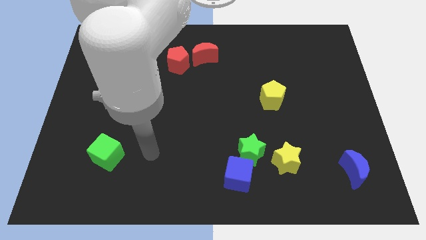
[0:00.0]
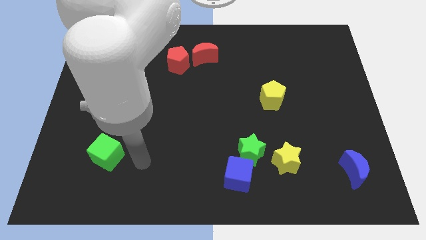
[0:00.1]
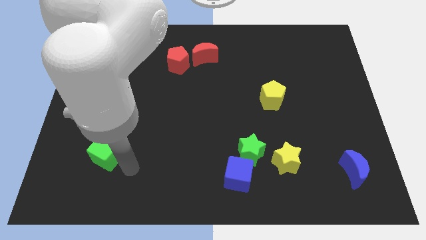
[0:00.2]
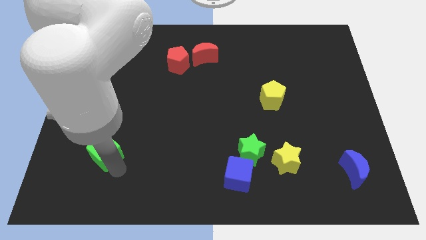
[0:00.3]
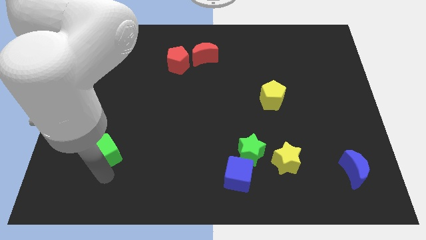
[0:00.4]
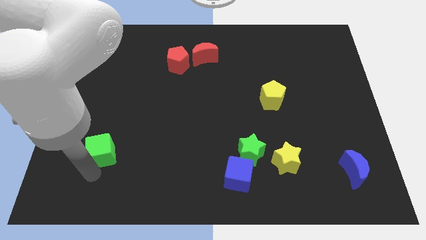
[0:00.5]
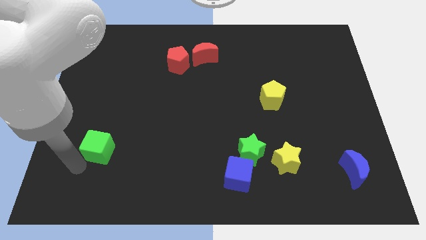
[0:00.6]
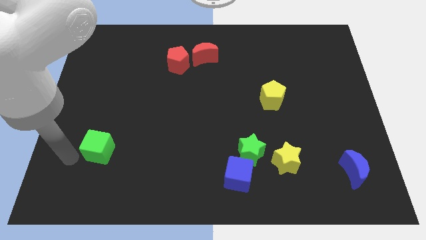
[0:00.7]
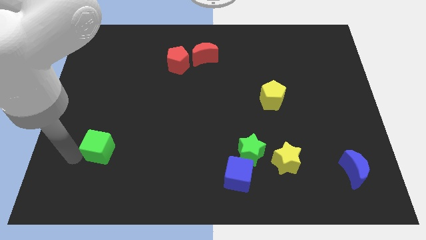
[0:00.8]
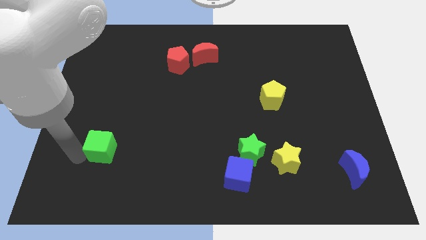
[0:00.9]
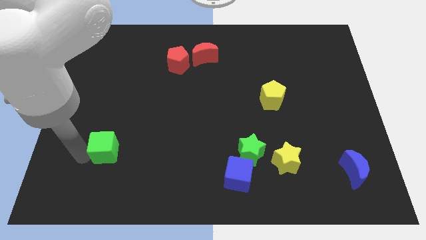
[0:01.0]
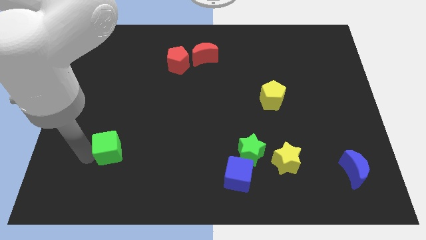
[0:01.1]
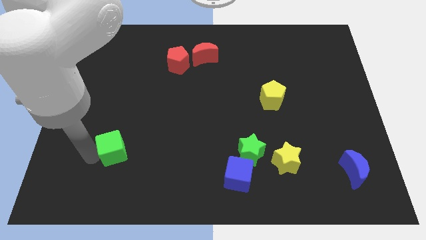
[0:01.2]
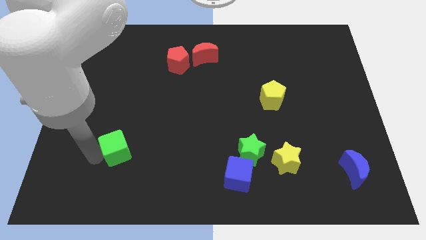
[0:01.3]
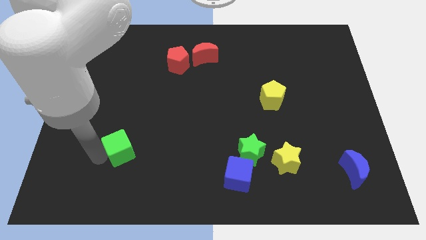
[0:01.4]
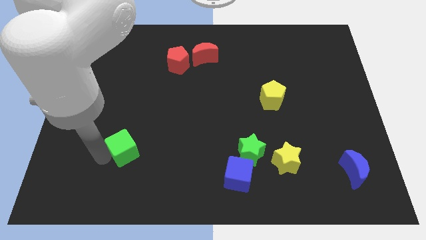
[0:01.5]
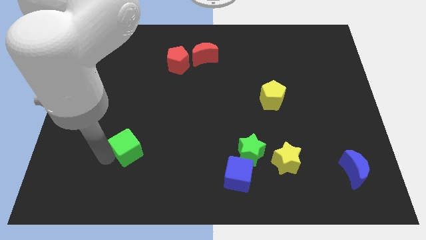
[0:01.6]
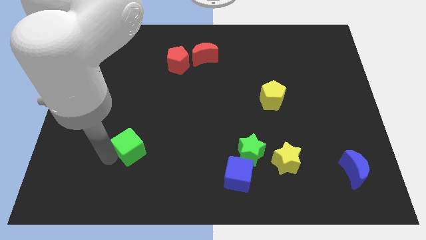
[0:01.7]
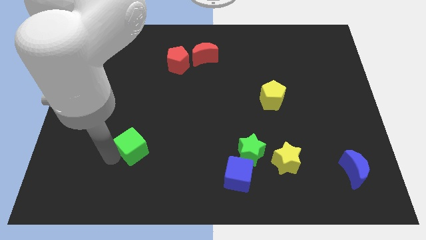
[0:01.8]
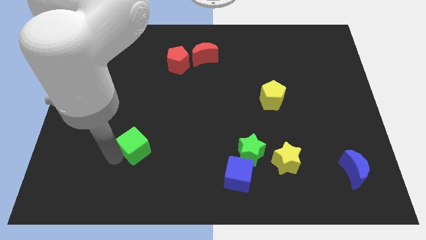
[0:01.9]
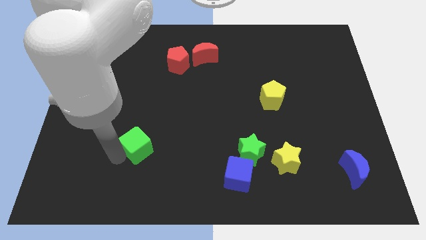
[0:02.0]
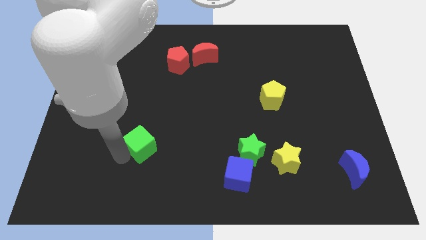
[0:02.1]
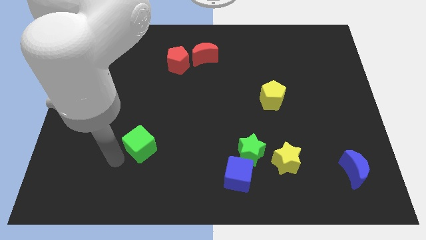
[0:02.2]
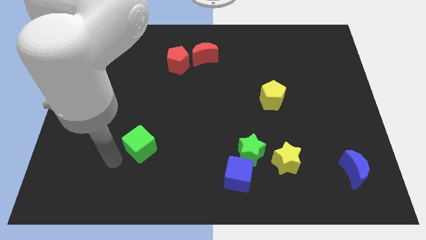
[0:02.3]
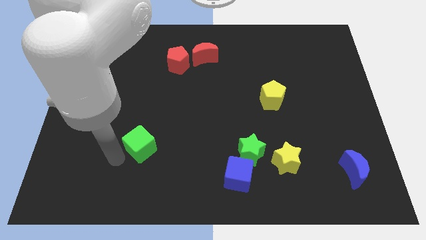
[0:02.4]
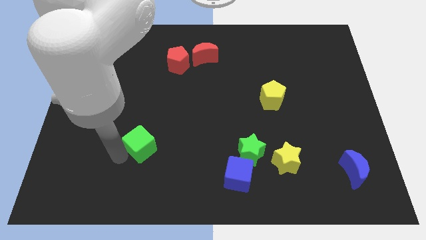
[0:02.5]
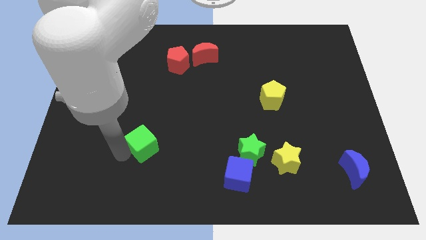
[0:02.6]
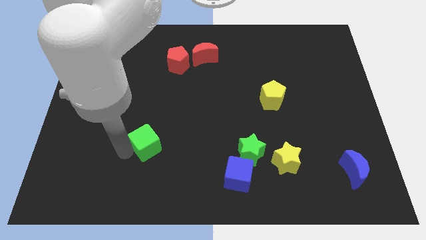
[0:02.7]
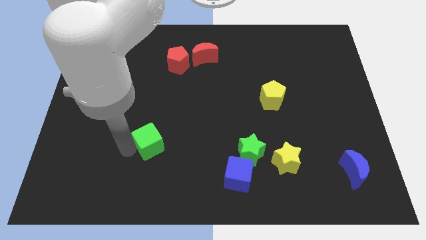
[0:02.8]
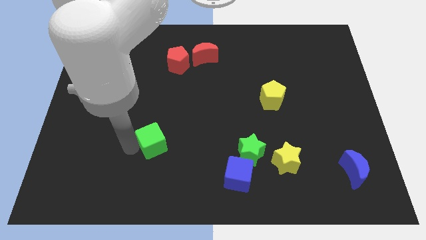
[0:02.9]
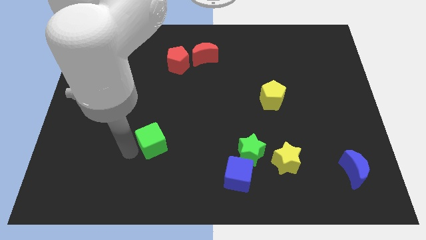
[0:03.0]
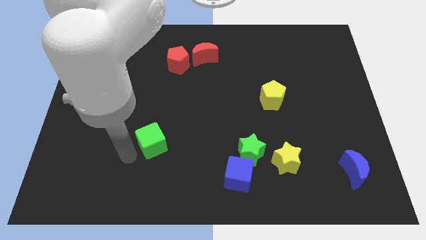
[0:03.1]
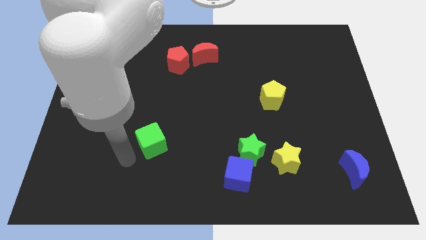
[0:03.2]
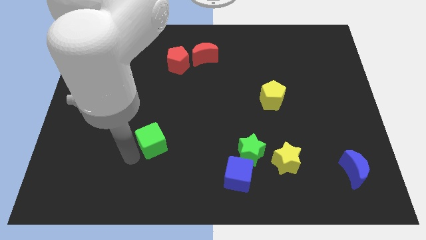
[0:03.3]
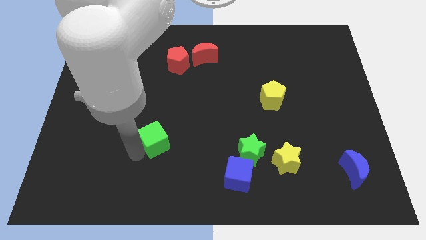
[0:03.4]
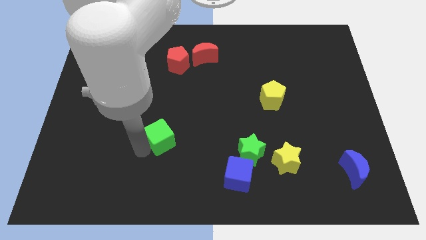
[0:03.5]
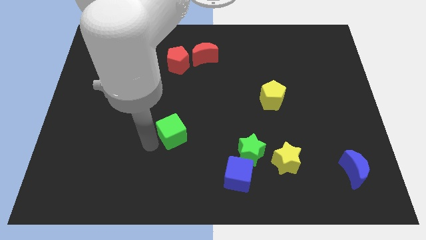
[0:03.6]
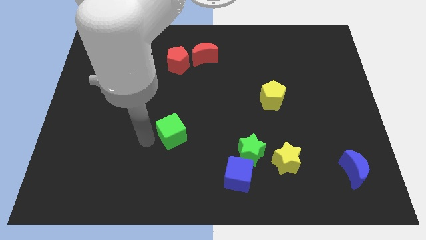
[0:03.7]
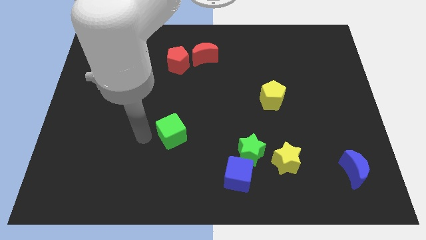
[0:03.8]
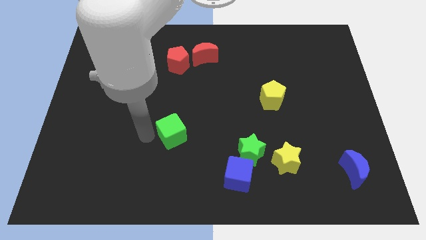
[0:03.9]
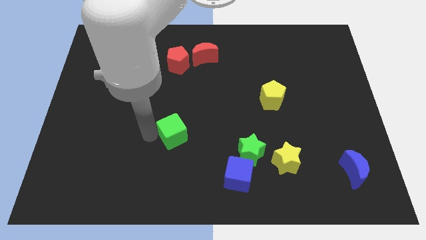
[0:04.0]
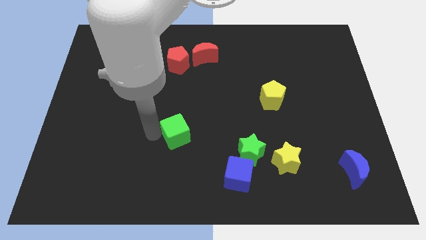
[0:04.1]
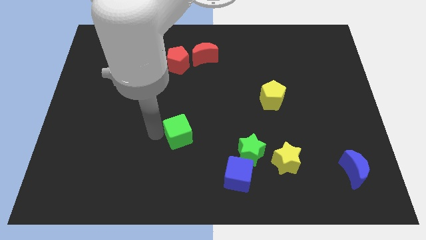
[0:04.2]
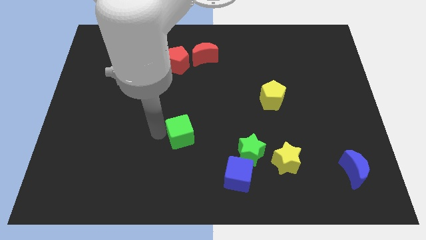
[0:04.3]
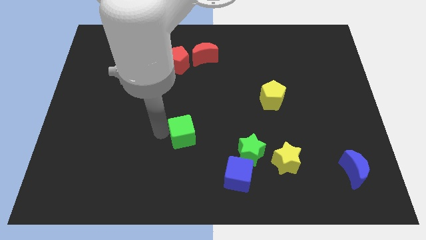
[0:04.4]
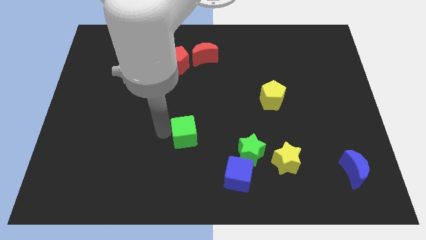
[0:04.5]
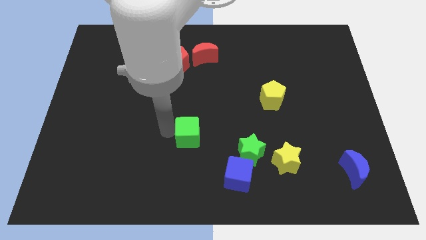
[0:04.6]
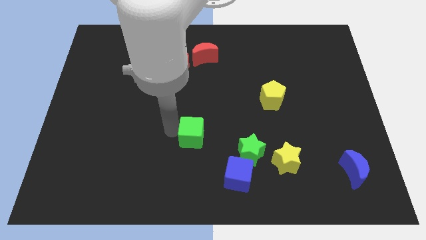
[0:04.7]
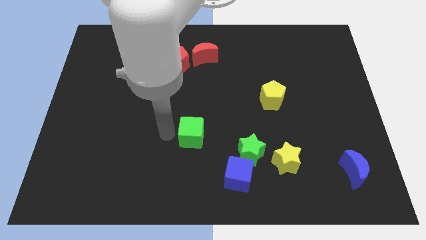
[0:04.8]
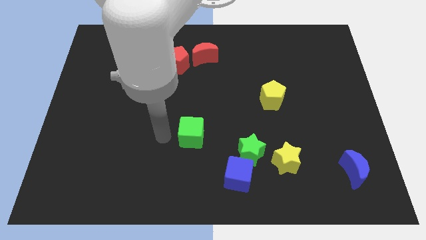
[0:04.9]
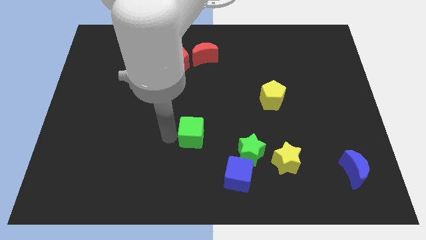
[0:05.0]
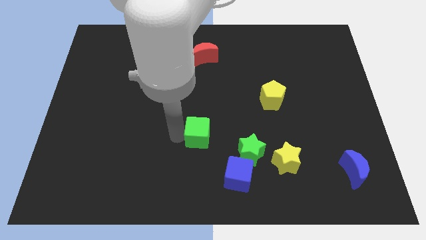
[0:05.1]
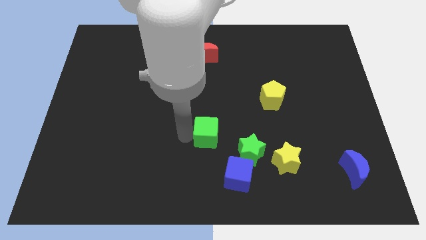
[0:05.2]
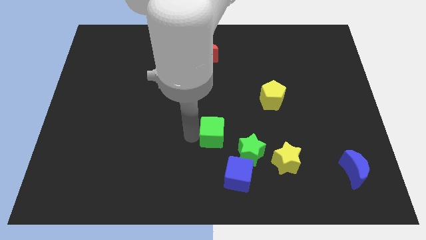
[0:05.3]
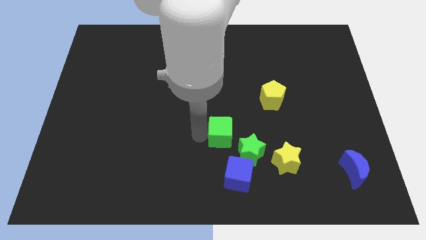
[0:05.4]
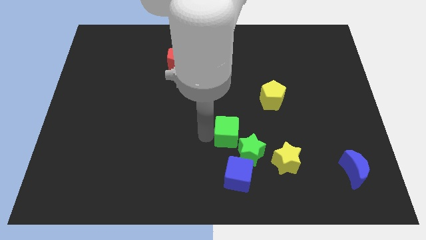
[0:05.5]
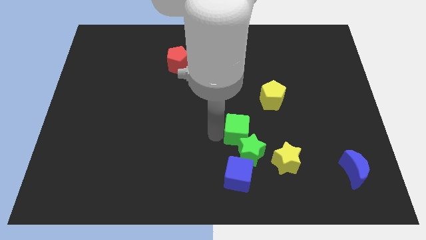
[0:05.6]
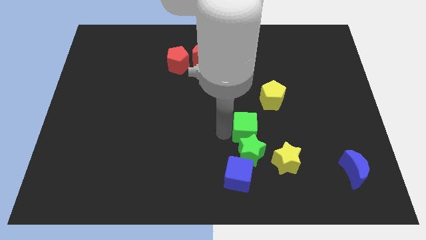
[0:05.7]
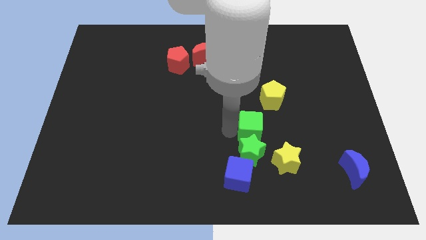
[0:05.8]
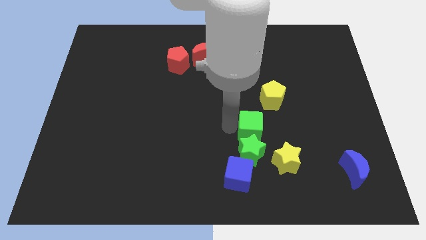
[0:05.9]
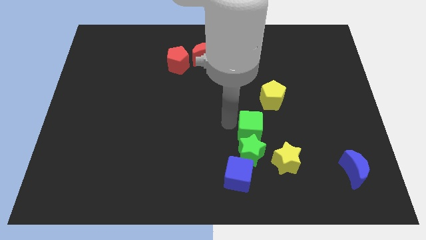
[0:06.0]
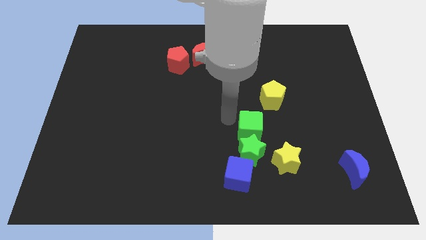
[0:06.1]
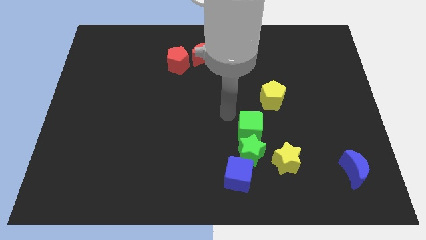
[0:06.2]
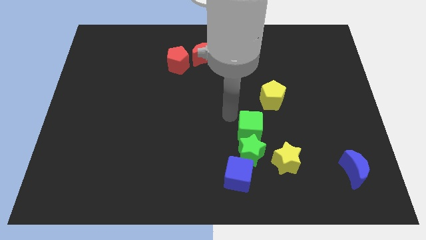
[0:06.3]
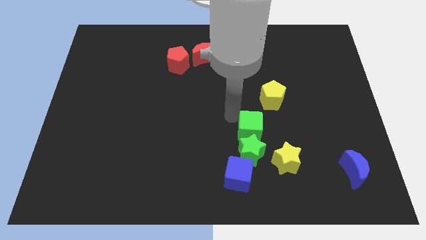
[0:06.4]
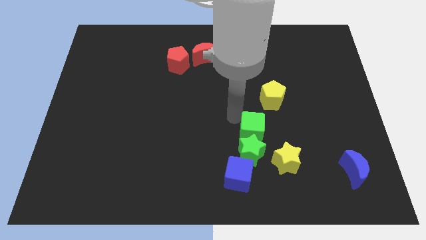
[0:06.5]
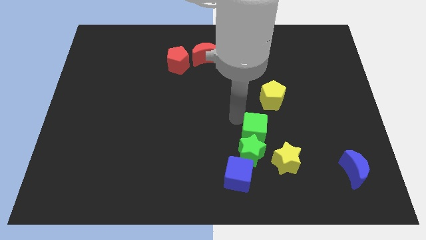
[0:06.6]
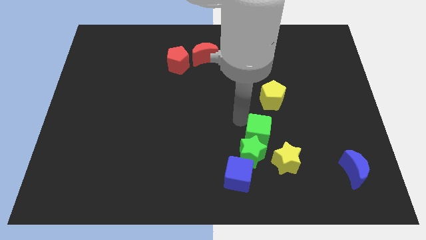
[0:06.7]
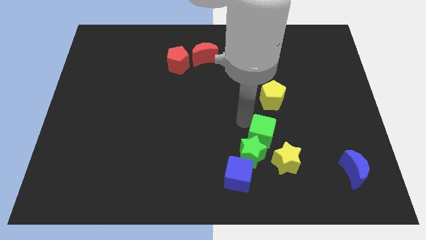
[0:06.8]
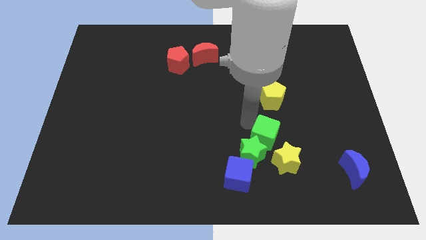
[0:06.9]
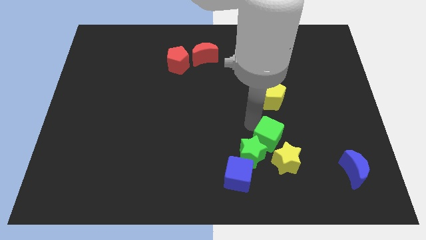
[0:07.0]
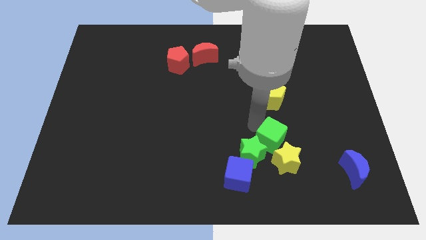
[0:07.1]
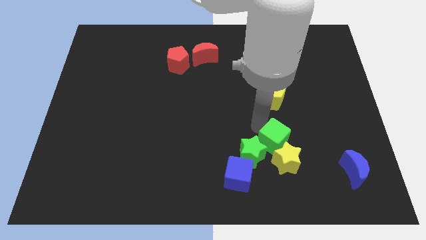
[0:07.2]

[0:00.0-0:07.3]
put the green cube towards the yellow star
